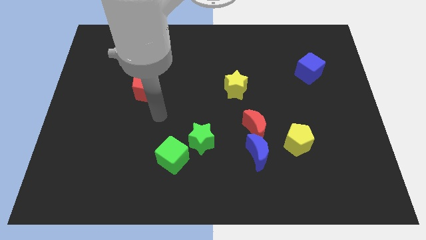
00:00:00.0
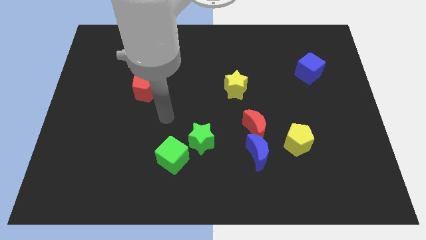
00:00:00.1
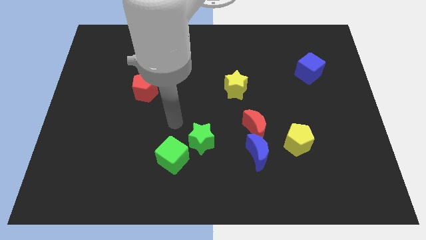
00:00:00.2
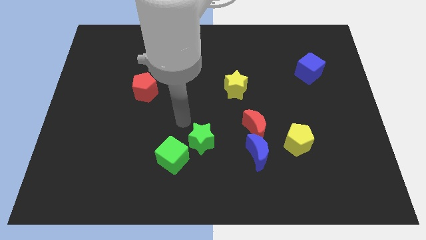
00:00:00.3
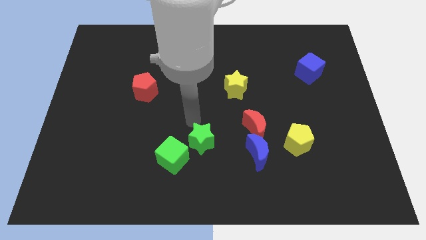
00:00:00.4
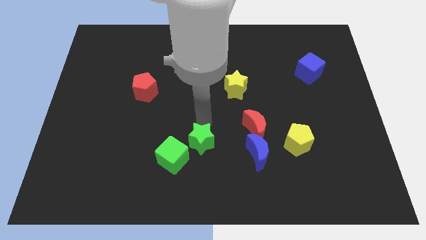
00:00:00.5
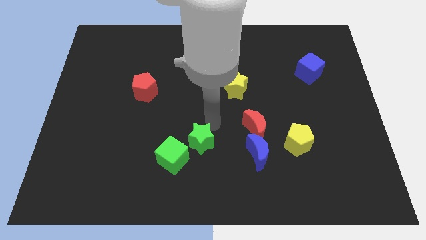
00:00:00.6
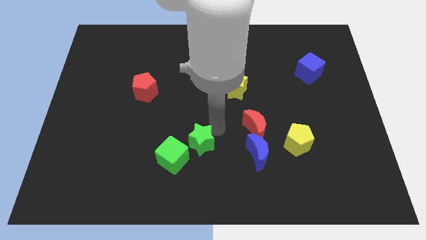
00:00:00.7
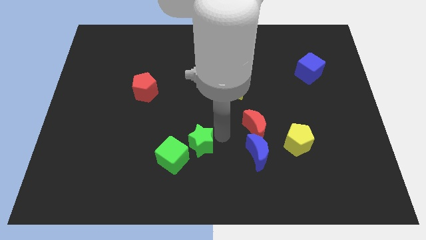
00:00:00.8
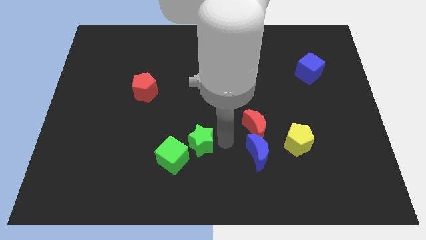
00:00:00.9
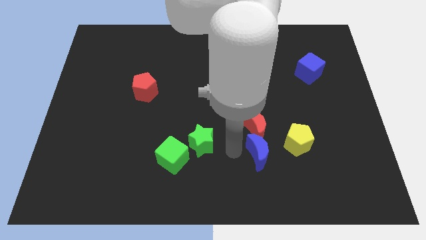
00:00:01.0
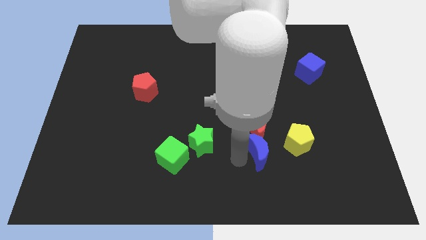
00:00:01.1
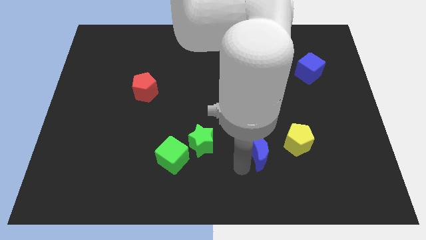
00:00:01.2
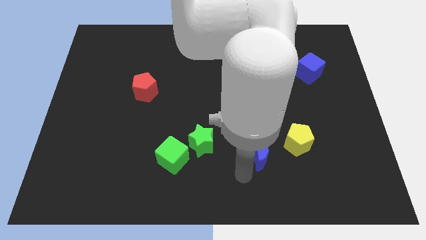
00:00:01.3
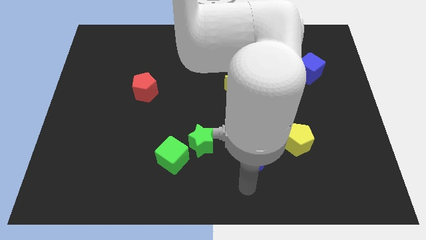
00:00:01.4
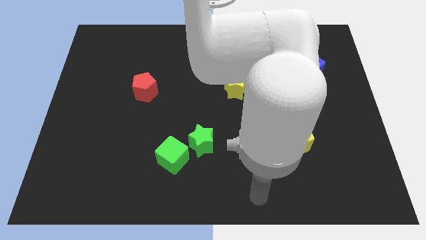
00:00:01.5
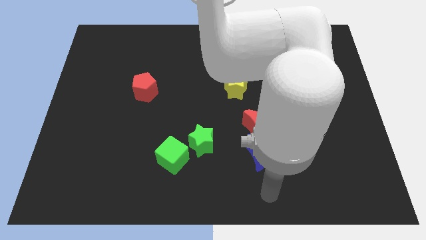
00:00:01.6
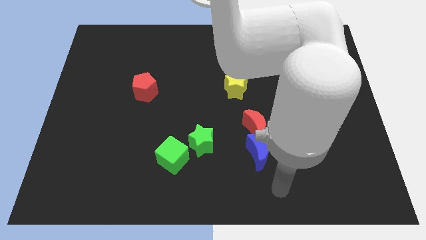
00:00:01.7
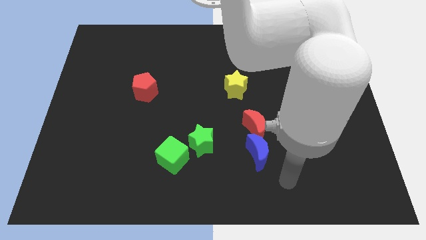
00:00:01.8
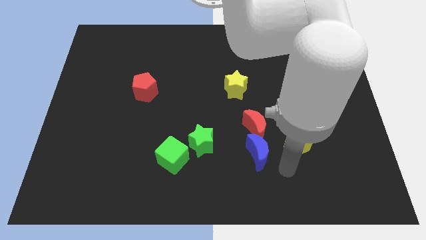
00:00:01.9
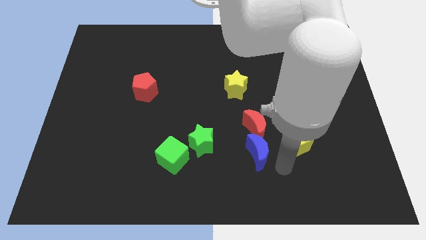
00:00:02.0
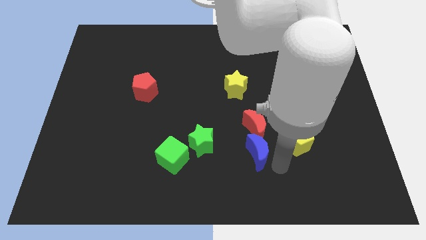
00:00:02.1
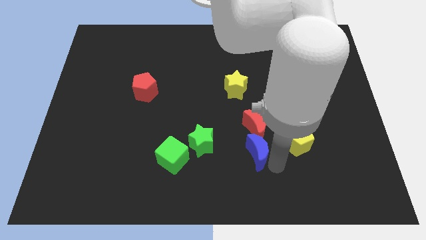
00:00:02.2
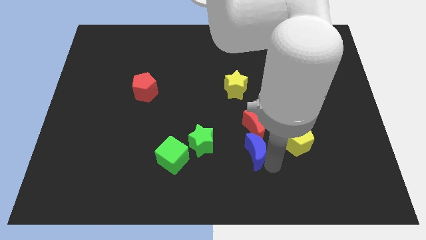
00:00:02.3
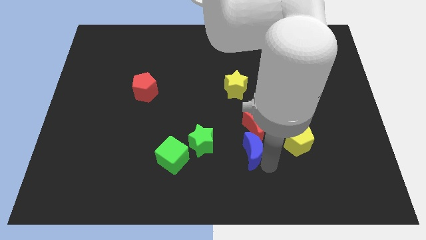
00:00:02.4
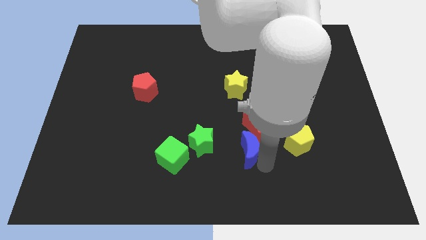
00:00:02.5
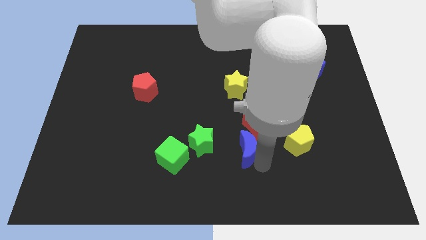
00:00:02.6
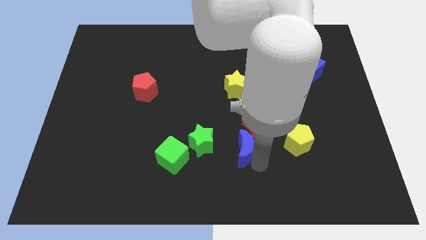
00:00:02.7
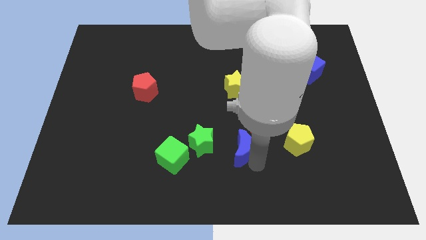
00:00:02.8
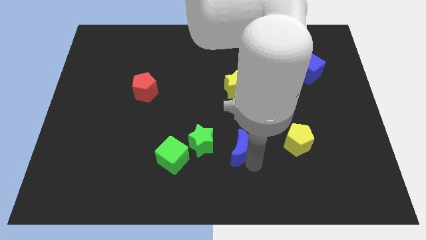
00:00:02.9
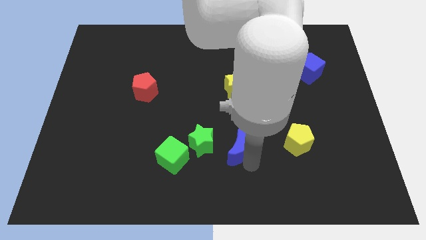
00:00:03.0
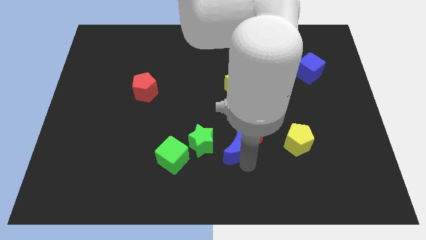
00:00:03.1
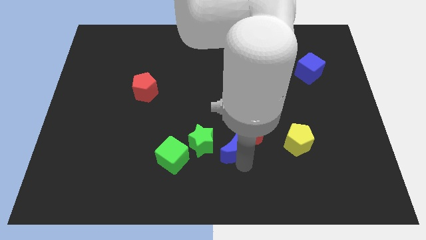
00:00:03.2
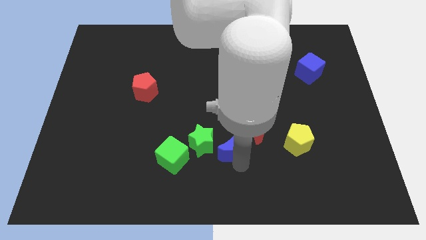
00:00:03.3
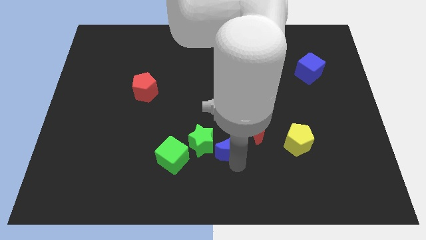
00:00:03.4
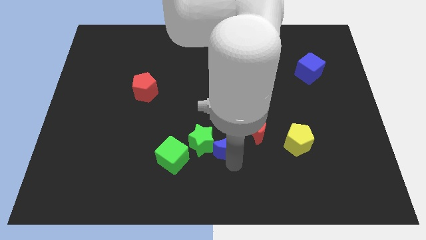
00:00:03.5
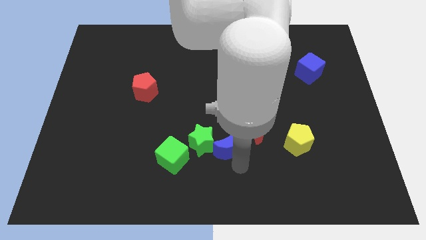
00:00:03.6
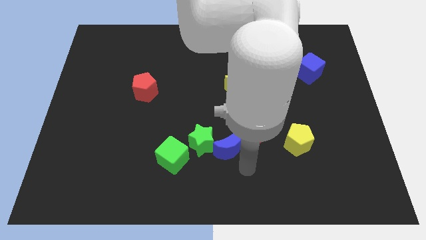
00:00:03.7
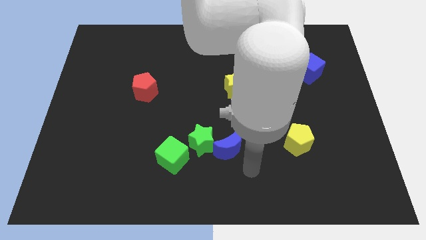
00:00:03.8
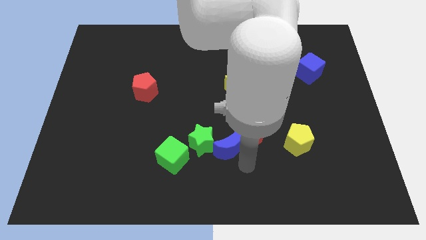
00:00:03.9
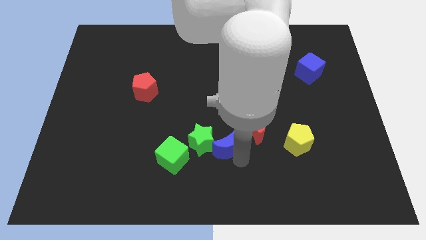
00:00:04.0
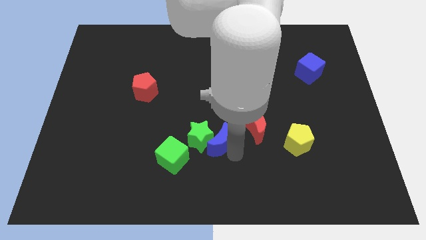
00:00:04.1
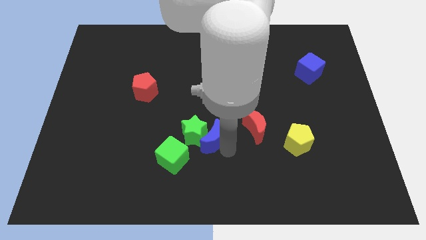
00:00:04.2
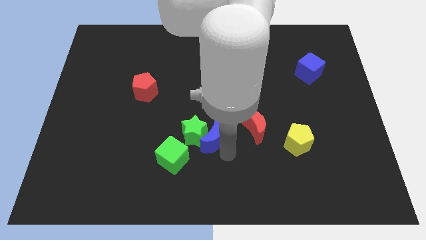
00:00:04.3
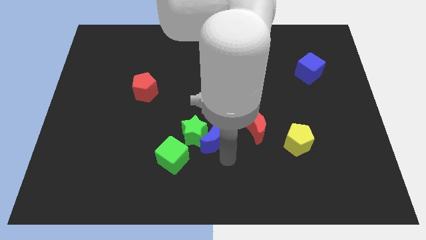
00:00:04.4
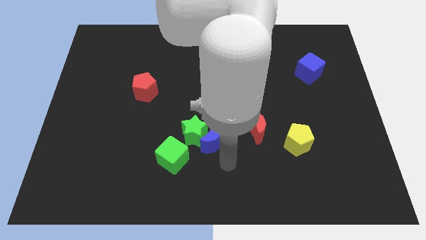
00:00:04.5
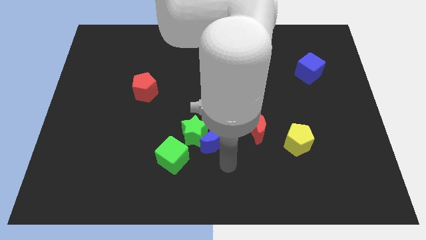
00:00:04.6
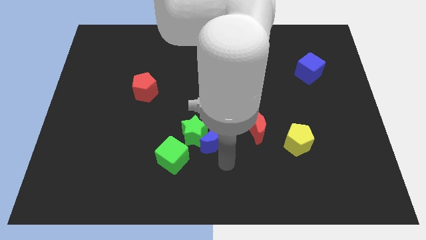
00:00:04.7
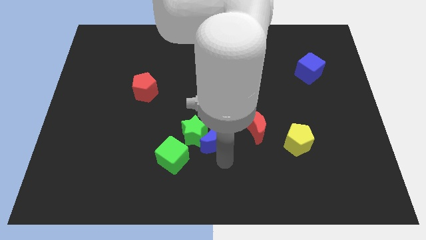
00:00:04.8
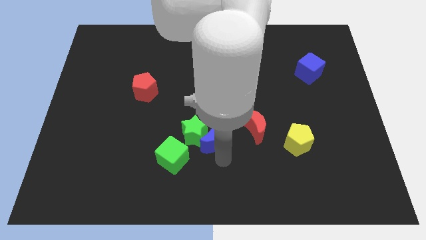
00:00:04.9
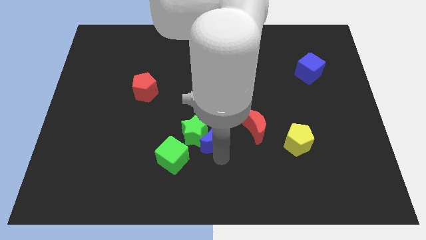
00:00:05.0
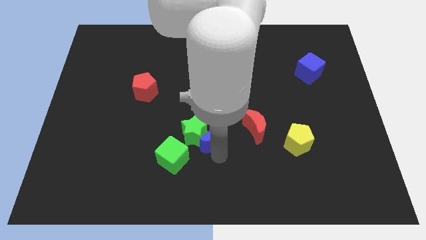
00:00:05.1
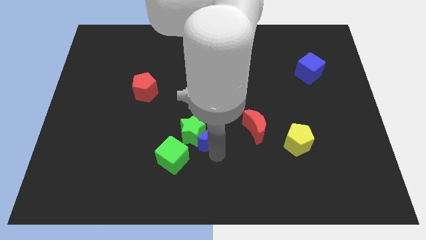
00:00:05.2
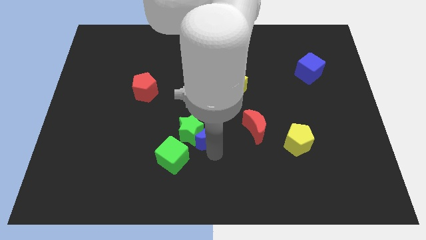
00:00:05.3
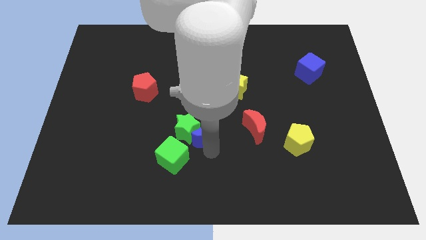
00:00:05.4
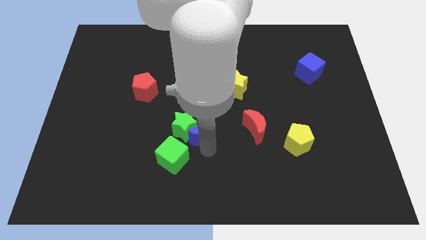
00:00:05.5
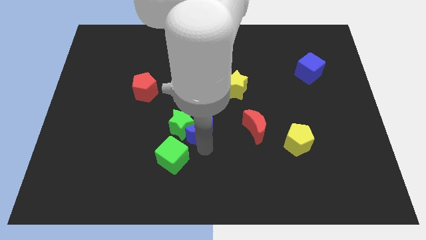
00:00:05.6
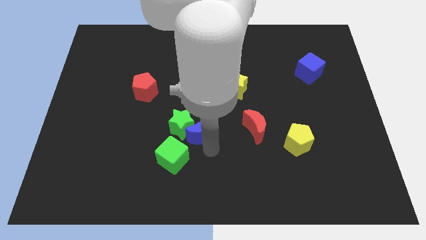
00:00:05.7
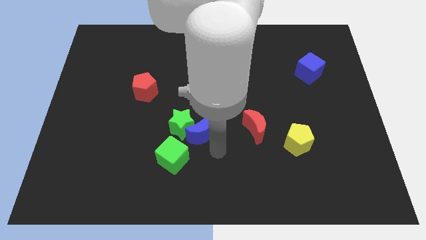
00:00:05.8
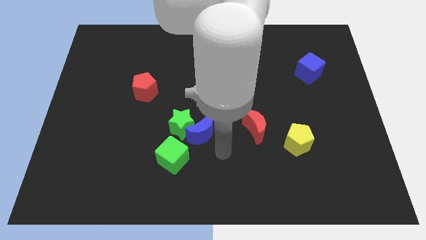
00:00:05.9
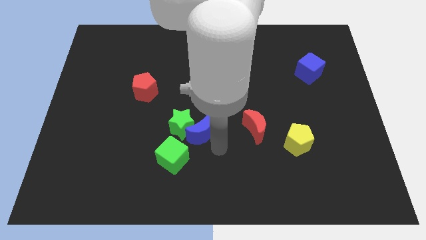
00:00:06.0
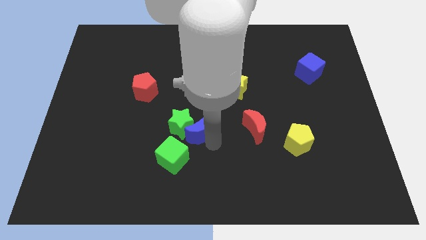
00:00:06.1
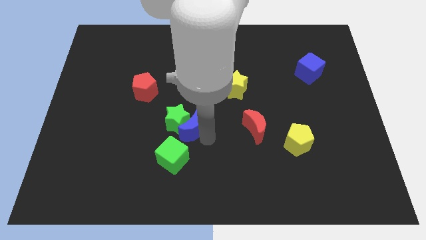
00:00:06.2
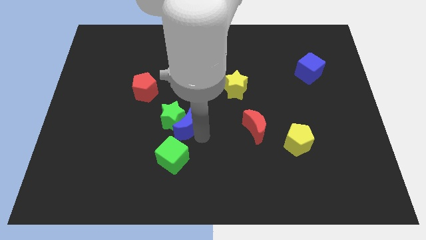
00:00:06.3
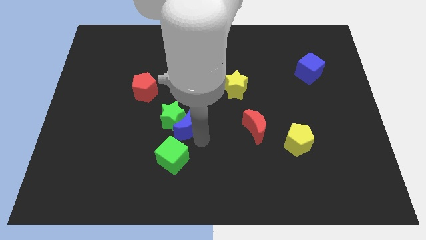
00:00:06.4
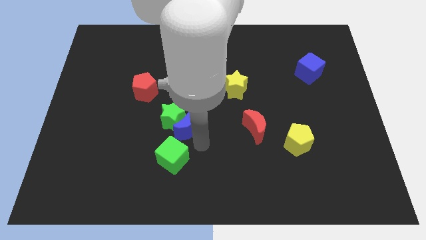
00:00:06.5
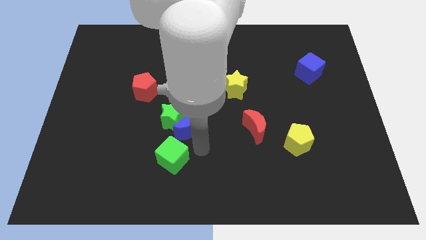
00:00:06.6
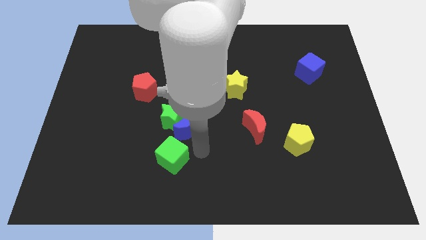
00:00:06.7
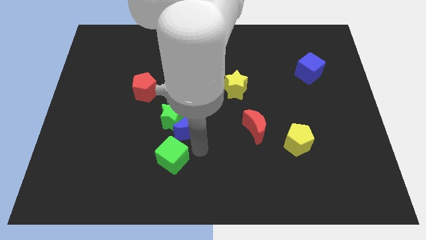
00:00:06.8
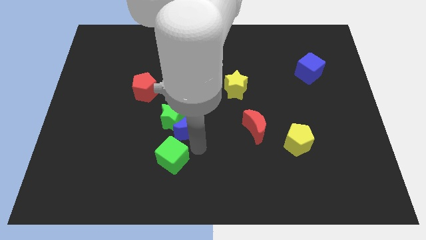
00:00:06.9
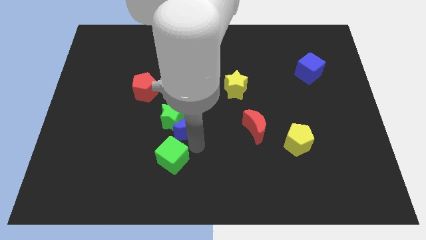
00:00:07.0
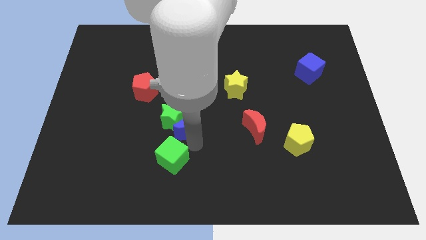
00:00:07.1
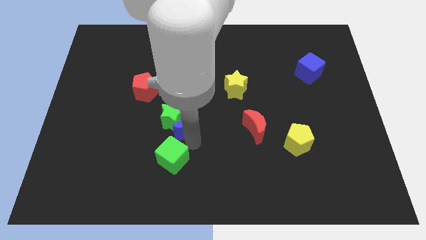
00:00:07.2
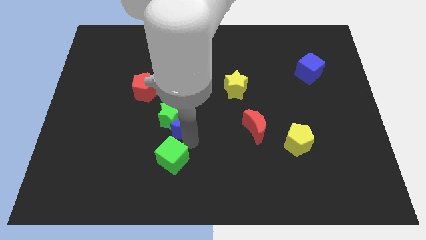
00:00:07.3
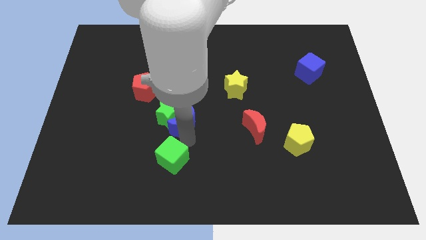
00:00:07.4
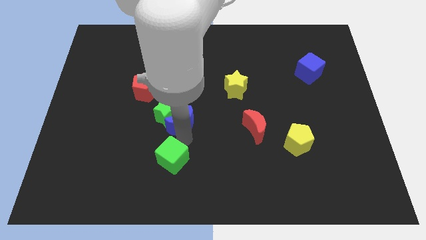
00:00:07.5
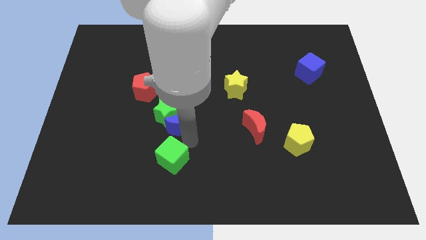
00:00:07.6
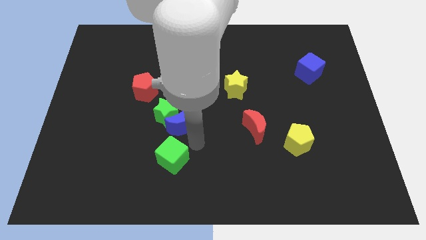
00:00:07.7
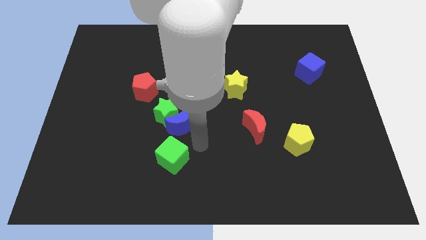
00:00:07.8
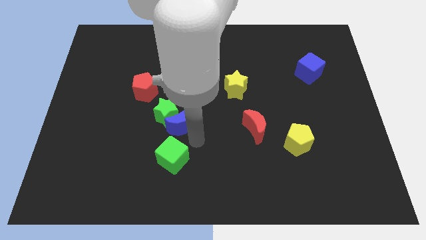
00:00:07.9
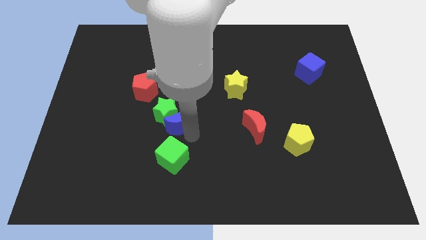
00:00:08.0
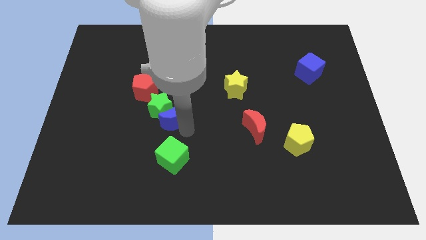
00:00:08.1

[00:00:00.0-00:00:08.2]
push the blue moon to the bottom right of the red pentagon
